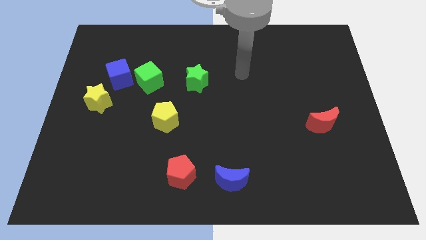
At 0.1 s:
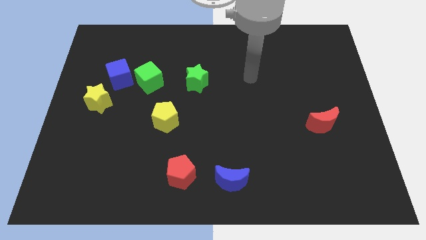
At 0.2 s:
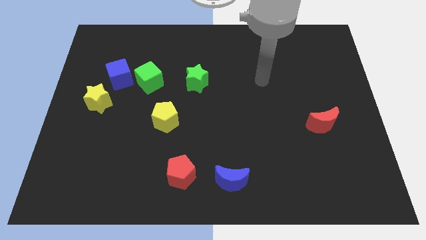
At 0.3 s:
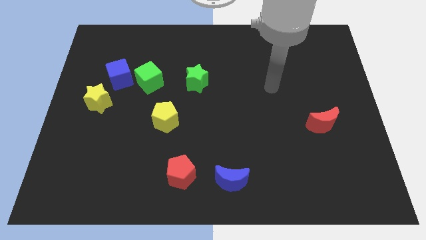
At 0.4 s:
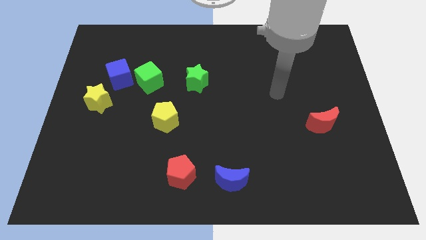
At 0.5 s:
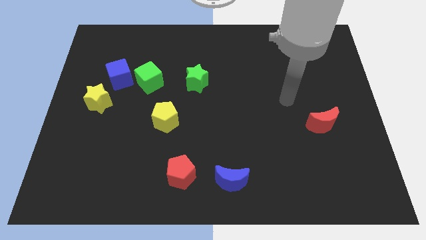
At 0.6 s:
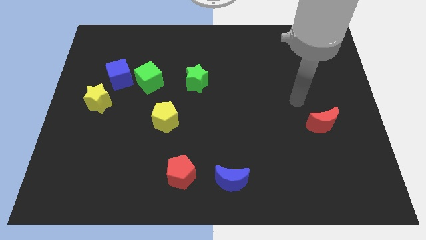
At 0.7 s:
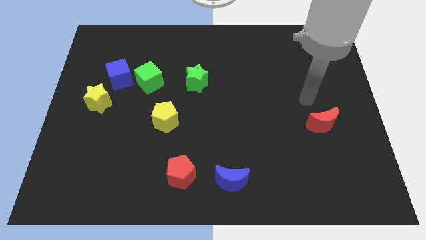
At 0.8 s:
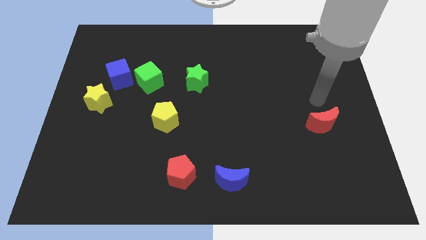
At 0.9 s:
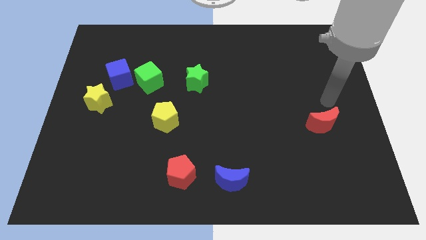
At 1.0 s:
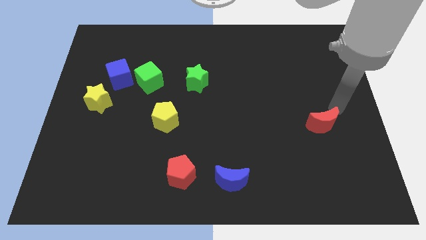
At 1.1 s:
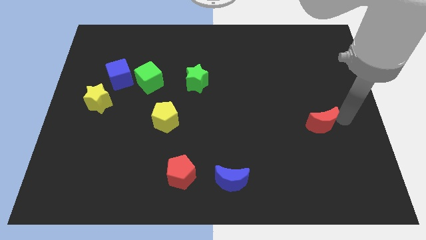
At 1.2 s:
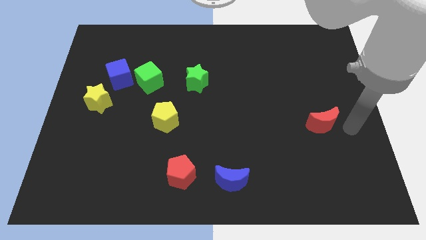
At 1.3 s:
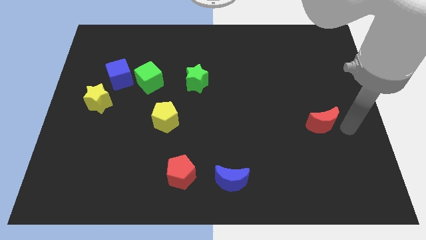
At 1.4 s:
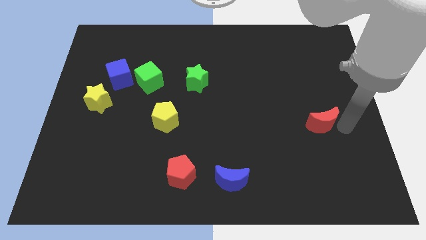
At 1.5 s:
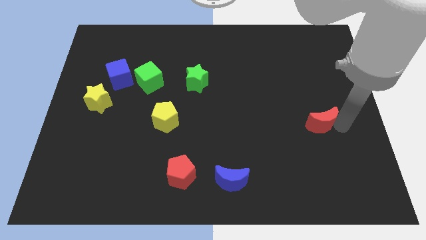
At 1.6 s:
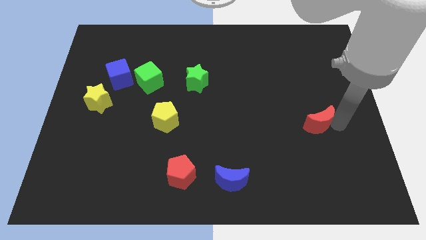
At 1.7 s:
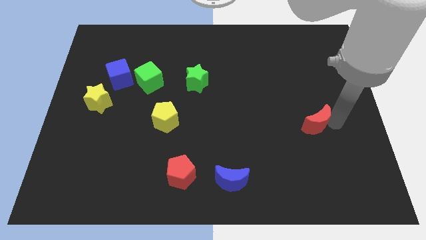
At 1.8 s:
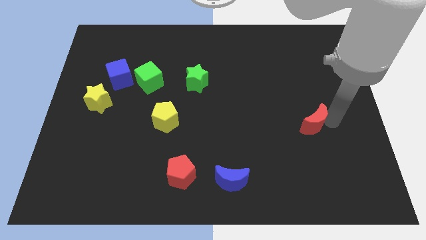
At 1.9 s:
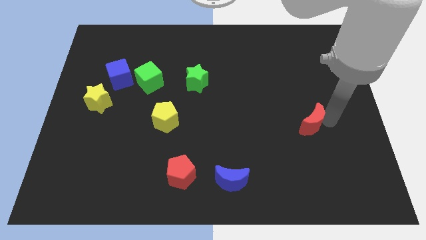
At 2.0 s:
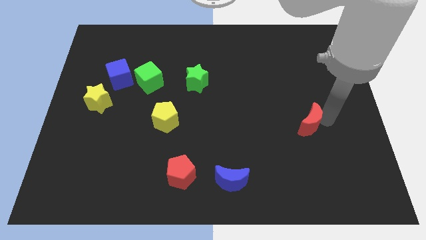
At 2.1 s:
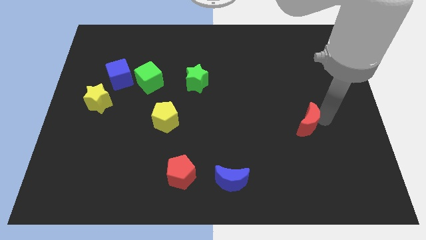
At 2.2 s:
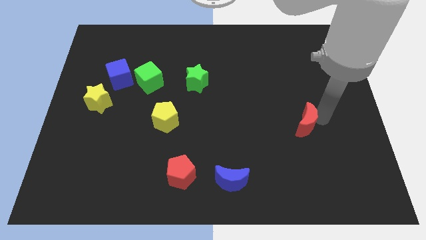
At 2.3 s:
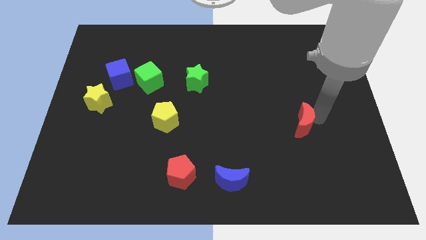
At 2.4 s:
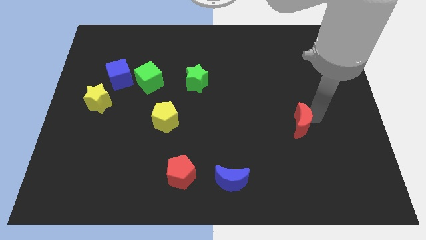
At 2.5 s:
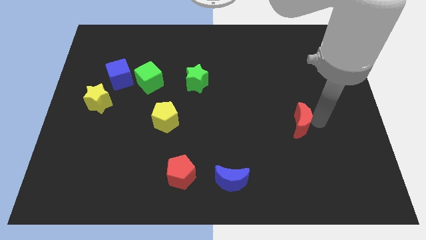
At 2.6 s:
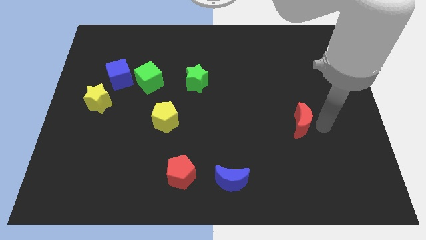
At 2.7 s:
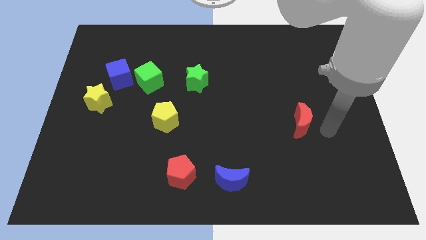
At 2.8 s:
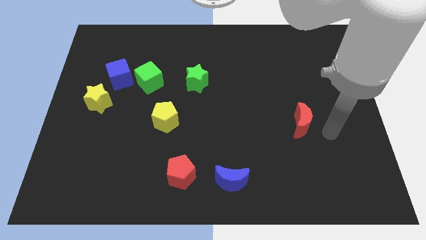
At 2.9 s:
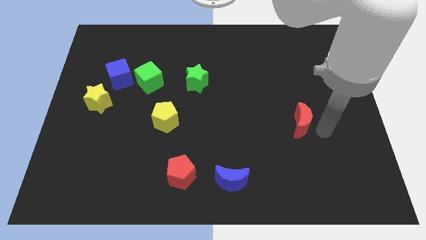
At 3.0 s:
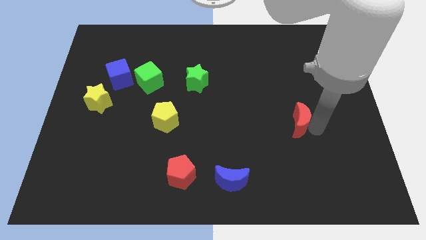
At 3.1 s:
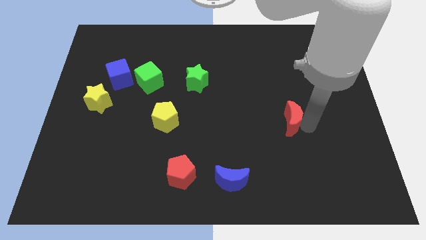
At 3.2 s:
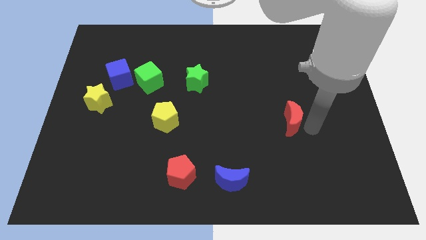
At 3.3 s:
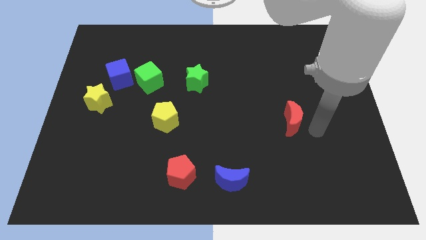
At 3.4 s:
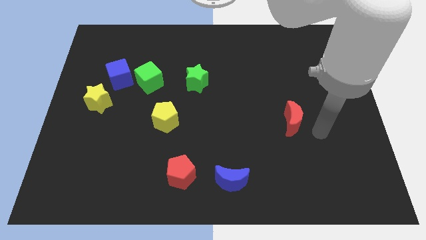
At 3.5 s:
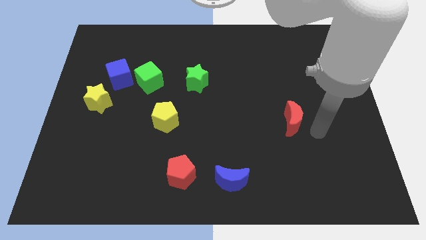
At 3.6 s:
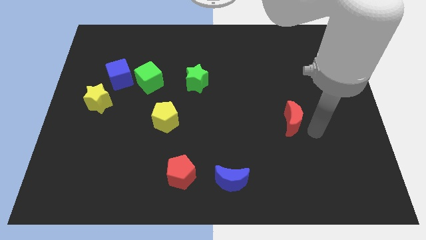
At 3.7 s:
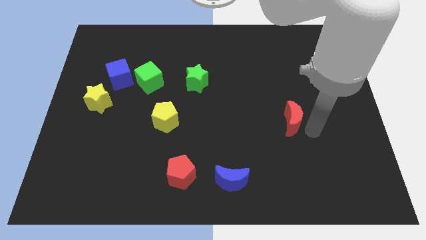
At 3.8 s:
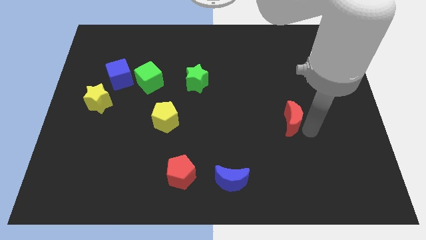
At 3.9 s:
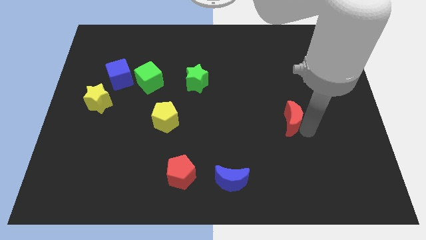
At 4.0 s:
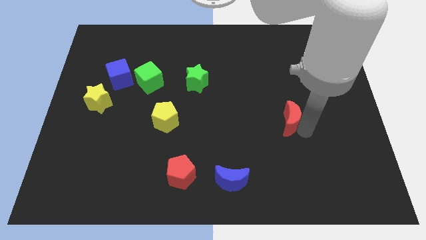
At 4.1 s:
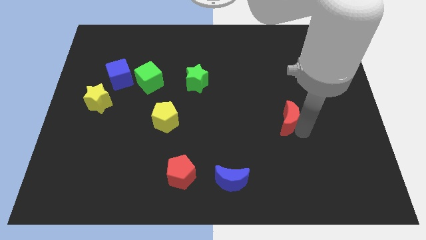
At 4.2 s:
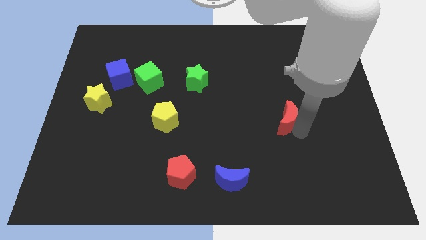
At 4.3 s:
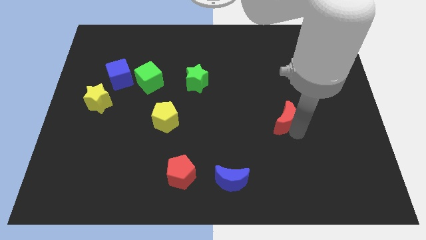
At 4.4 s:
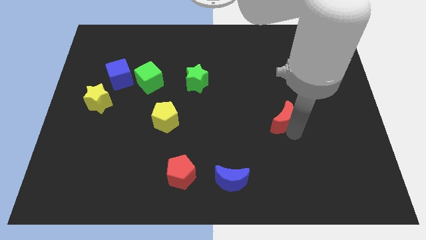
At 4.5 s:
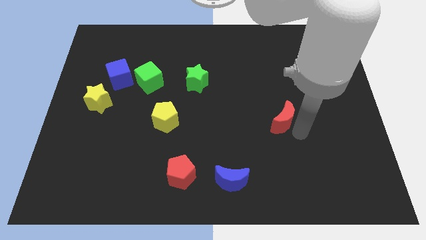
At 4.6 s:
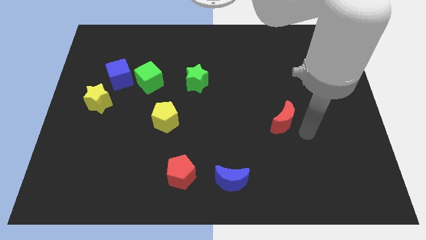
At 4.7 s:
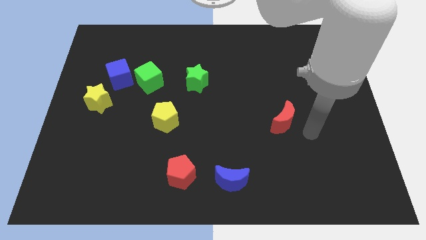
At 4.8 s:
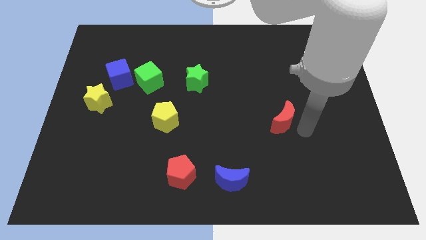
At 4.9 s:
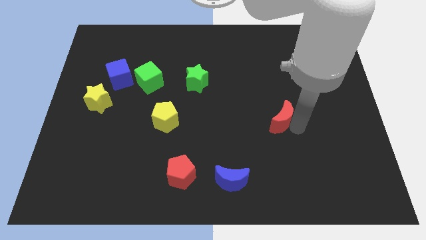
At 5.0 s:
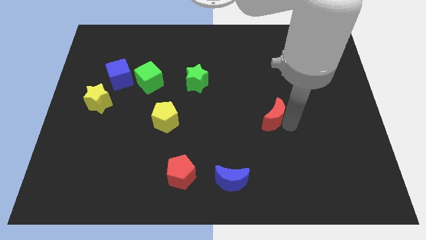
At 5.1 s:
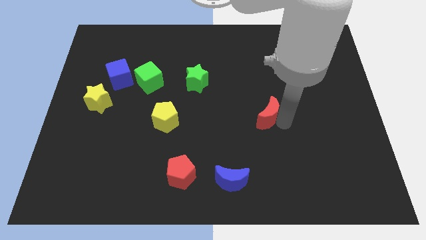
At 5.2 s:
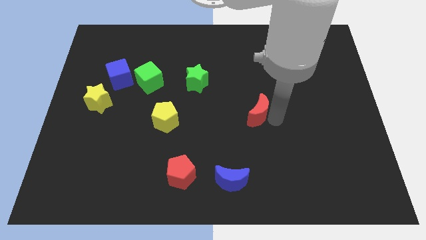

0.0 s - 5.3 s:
push the red moon to the center of the board
